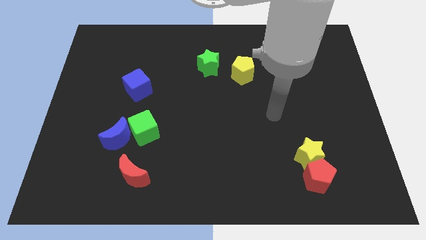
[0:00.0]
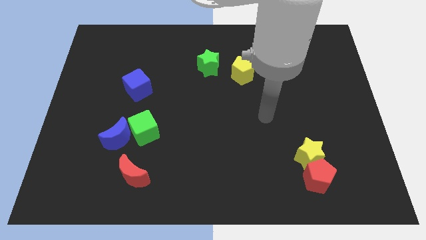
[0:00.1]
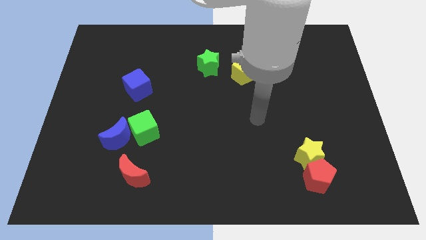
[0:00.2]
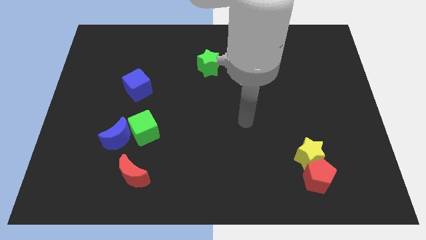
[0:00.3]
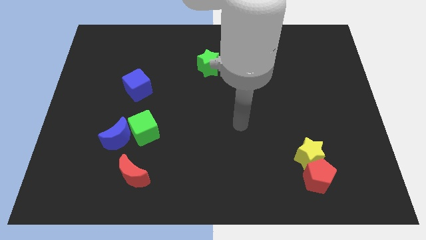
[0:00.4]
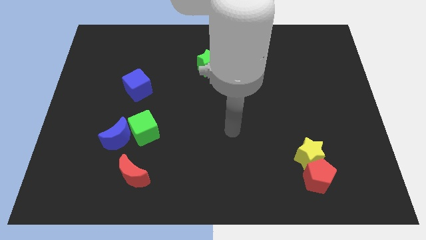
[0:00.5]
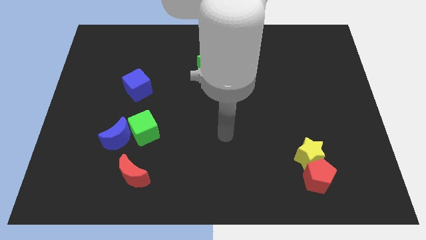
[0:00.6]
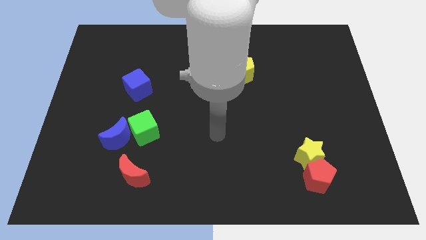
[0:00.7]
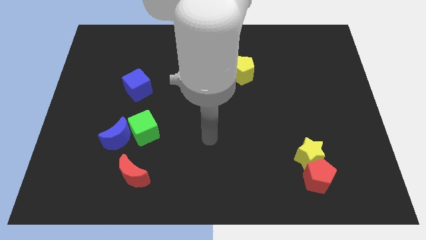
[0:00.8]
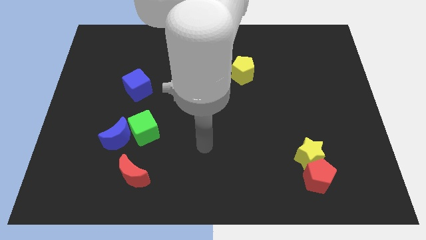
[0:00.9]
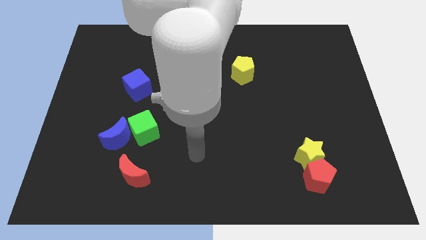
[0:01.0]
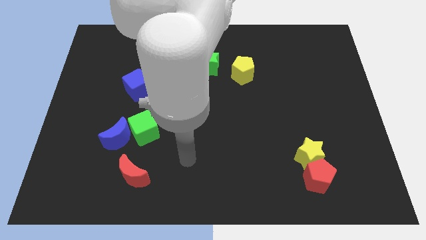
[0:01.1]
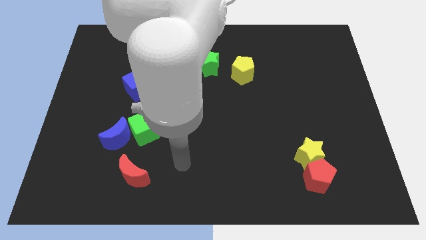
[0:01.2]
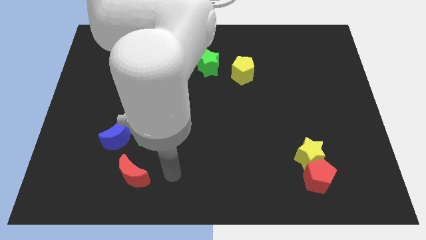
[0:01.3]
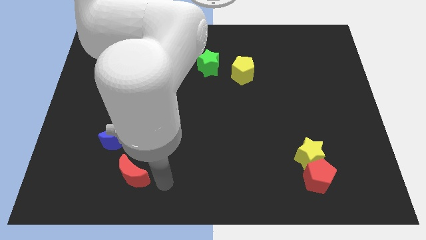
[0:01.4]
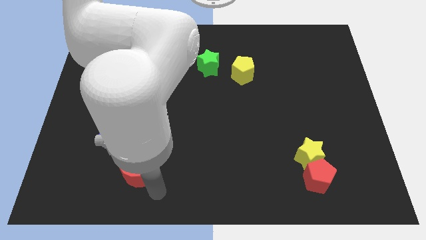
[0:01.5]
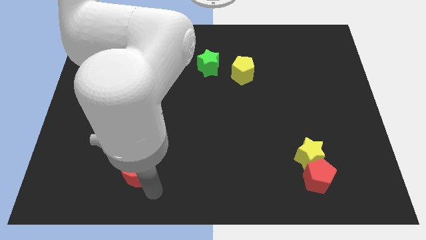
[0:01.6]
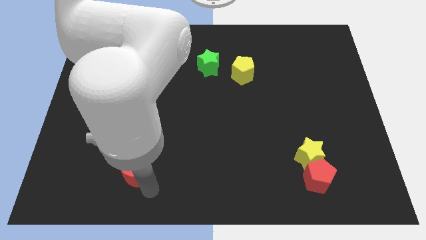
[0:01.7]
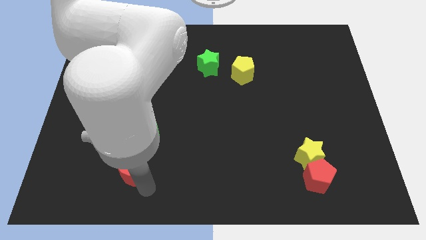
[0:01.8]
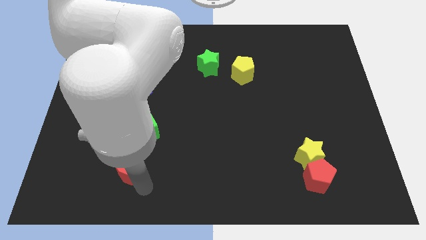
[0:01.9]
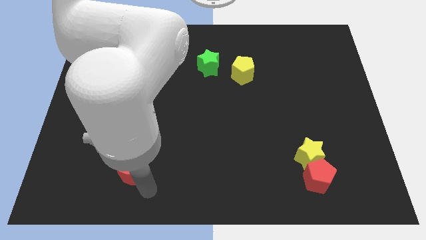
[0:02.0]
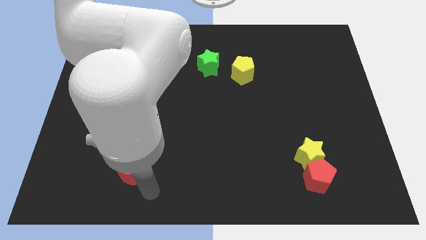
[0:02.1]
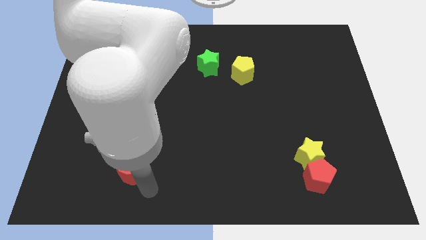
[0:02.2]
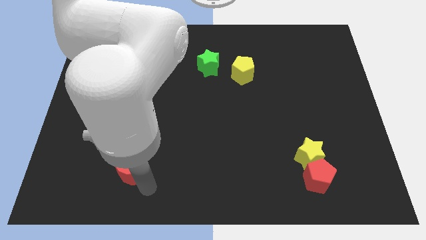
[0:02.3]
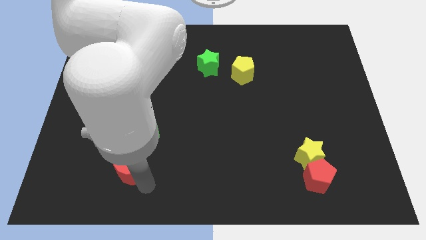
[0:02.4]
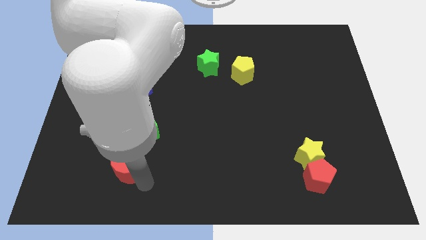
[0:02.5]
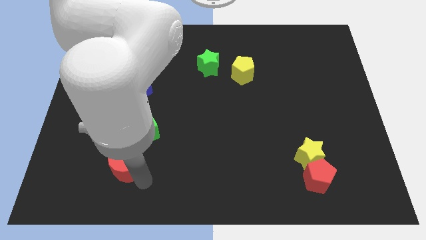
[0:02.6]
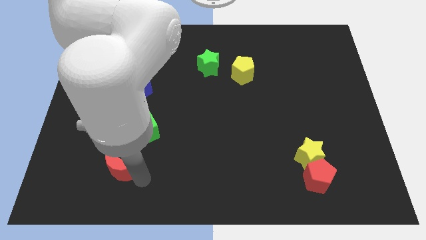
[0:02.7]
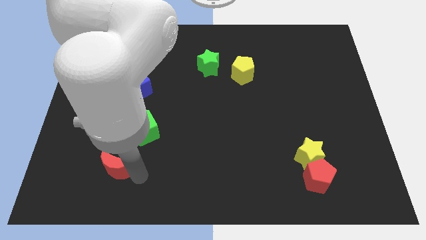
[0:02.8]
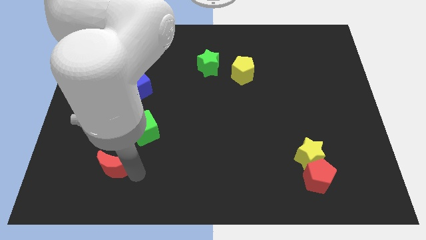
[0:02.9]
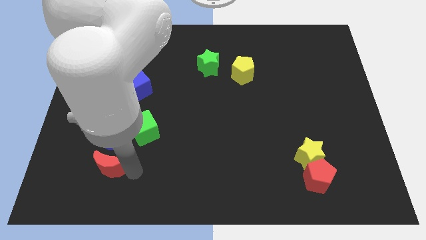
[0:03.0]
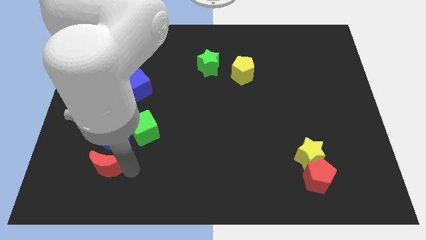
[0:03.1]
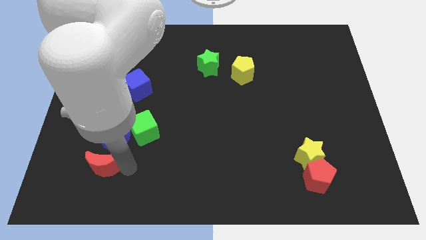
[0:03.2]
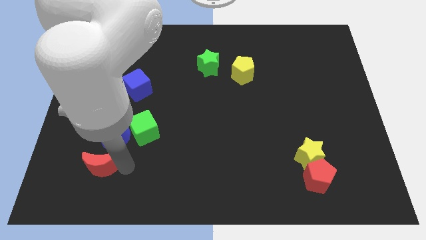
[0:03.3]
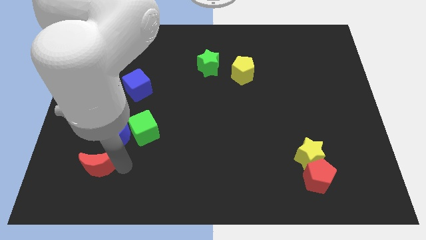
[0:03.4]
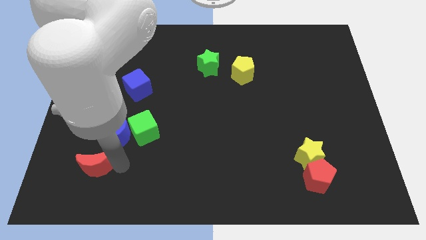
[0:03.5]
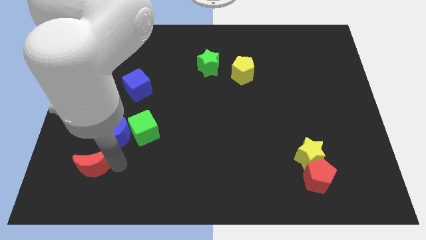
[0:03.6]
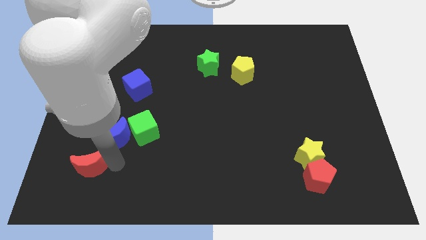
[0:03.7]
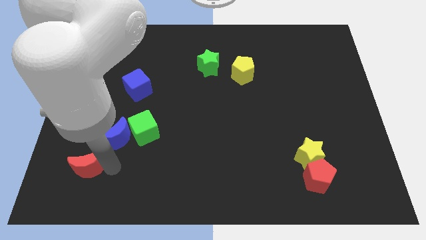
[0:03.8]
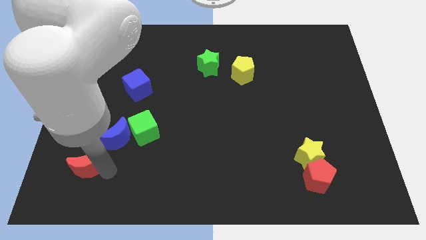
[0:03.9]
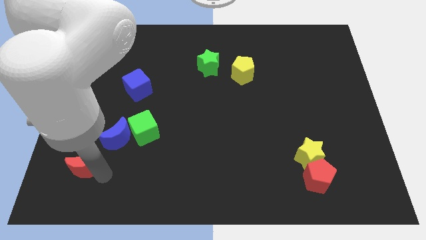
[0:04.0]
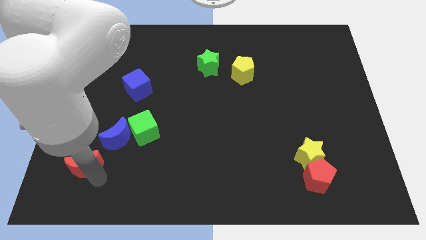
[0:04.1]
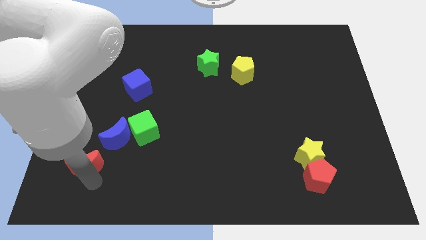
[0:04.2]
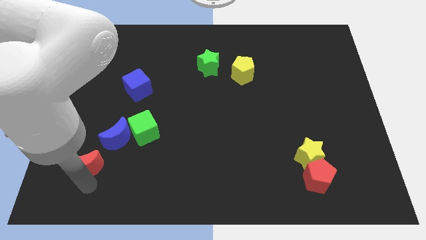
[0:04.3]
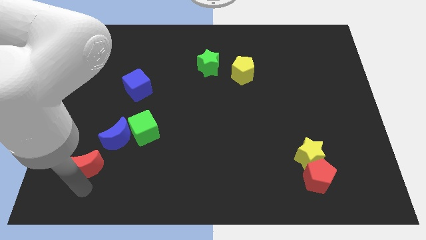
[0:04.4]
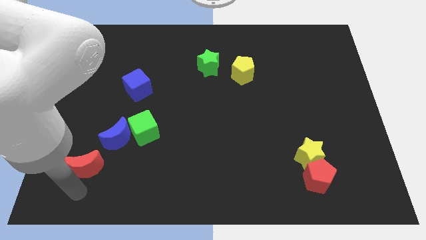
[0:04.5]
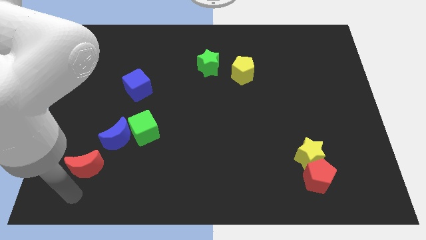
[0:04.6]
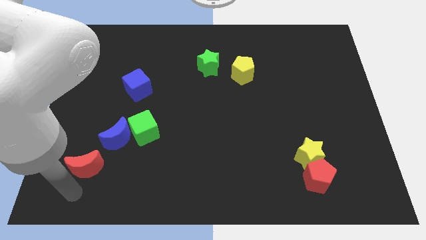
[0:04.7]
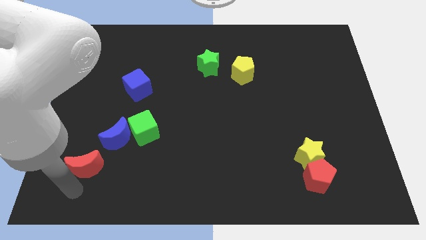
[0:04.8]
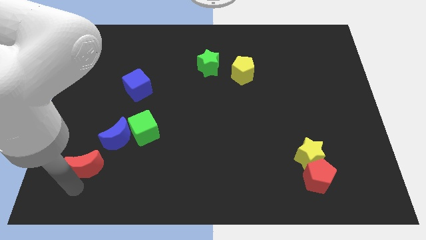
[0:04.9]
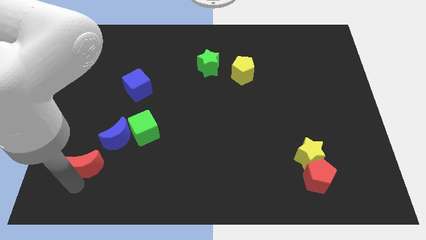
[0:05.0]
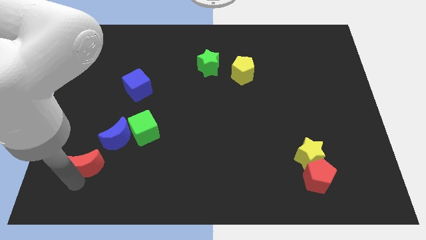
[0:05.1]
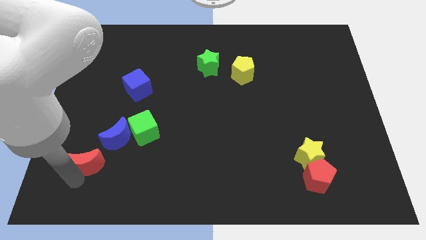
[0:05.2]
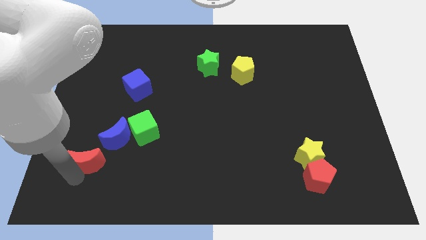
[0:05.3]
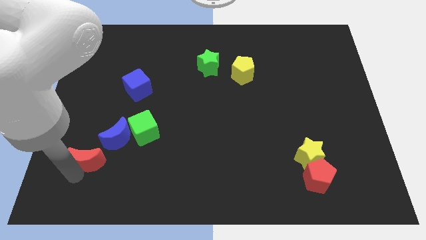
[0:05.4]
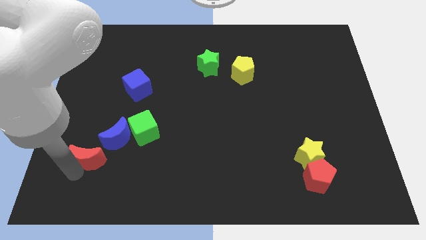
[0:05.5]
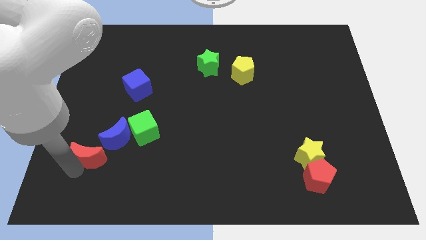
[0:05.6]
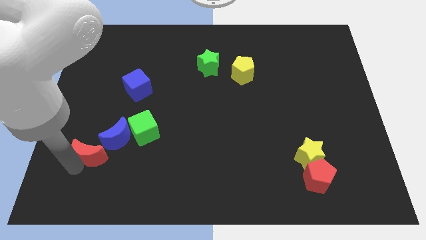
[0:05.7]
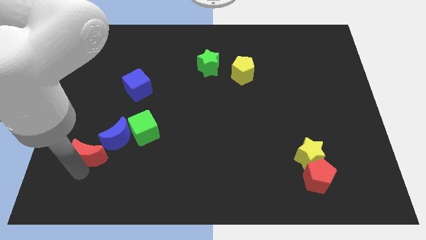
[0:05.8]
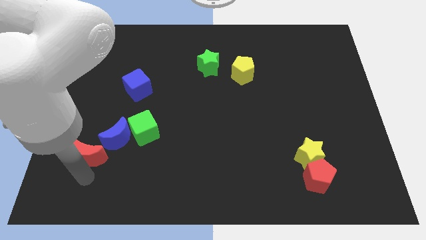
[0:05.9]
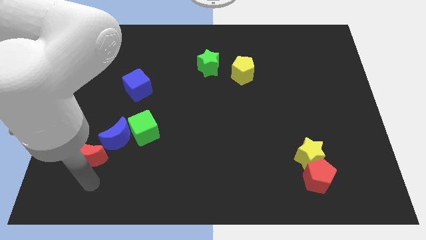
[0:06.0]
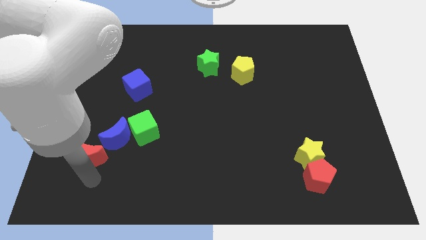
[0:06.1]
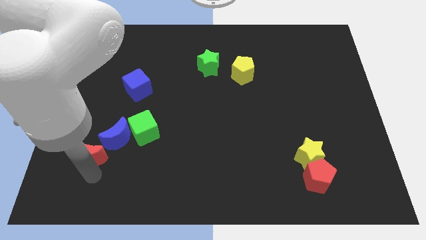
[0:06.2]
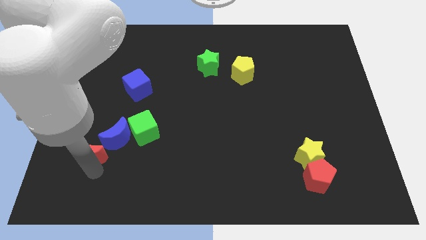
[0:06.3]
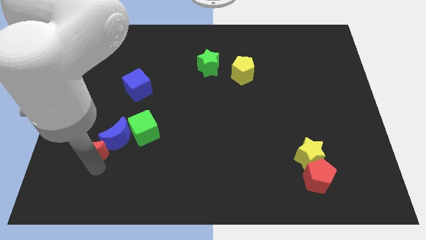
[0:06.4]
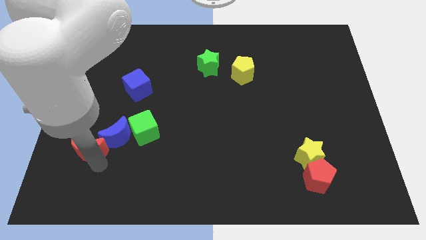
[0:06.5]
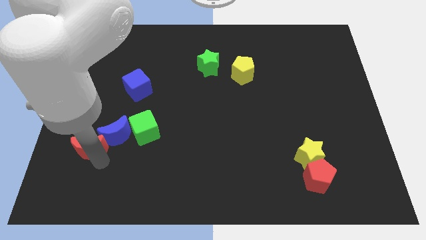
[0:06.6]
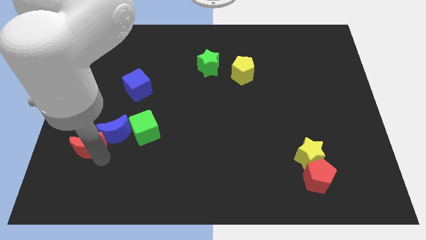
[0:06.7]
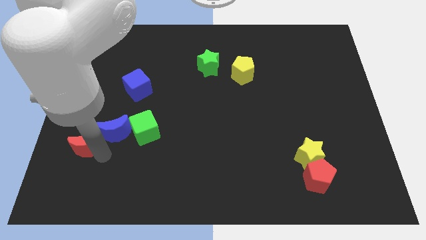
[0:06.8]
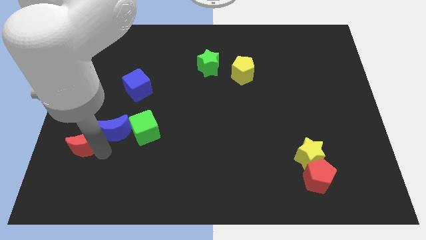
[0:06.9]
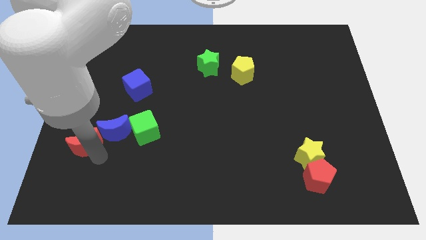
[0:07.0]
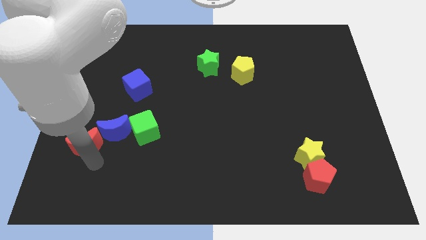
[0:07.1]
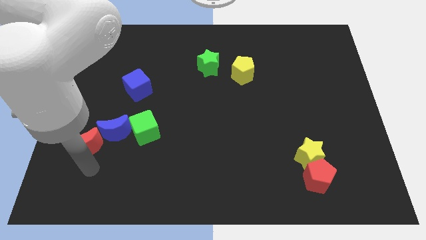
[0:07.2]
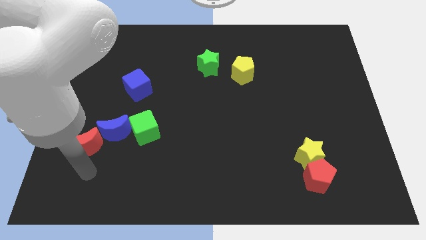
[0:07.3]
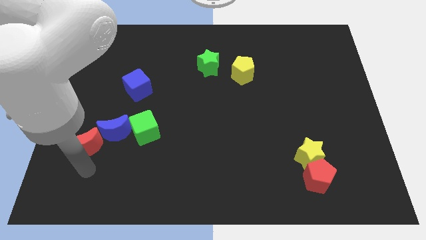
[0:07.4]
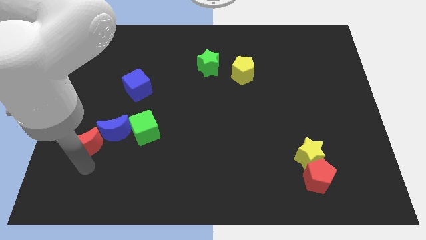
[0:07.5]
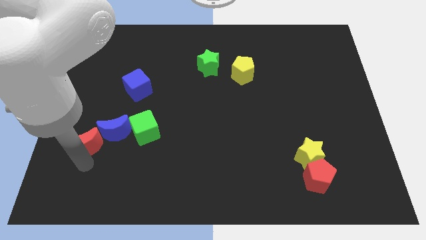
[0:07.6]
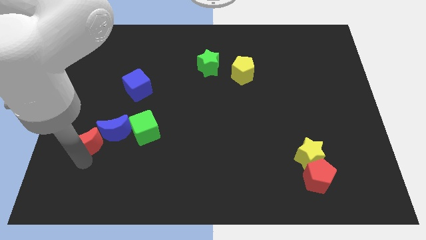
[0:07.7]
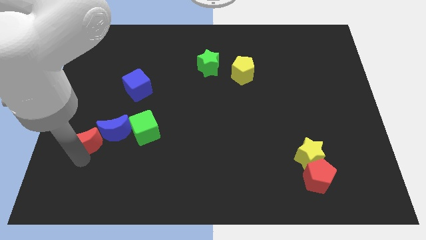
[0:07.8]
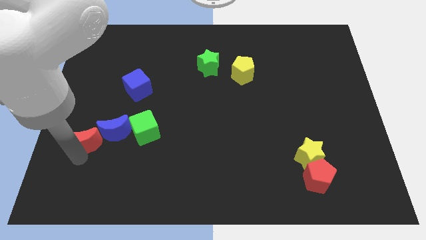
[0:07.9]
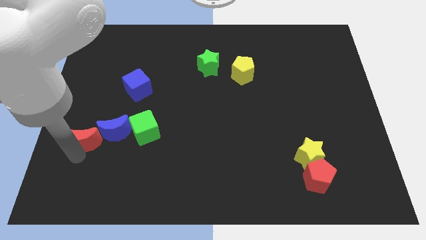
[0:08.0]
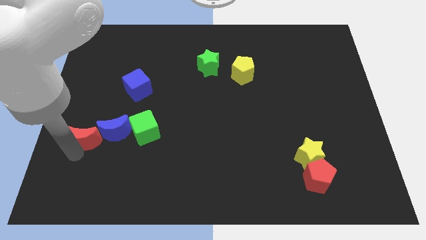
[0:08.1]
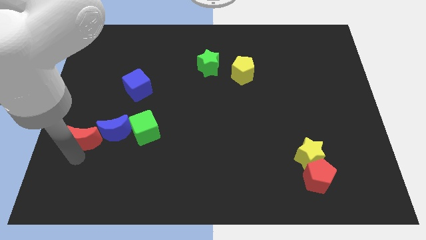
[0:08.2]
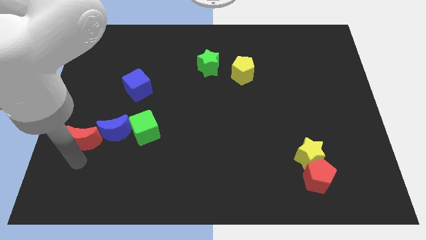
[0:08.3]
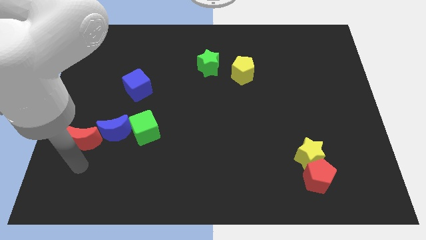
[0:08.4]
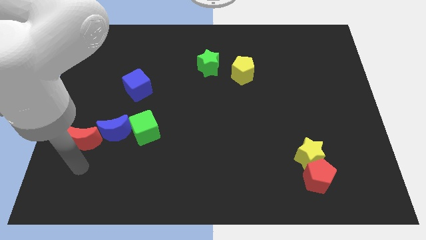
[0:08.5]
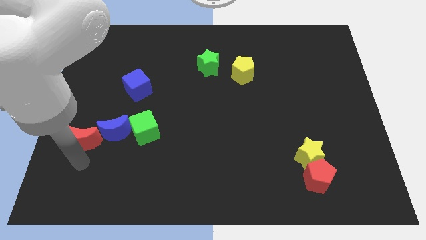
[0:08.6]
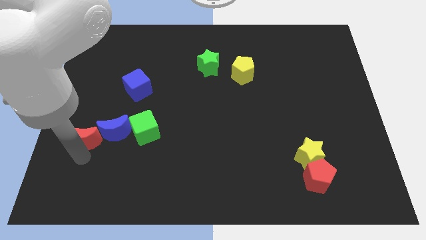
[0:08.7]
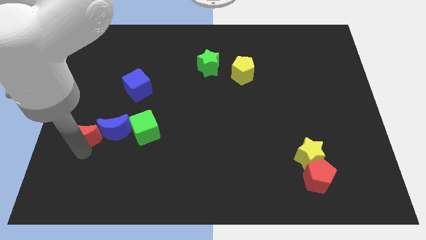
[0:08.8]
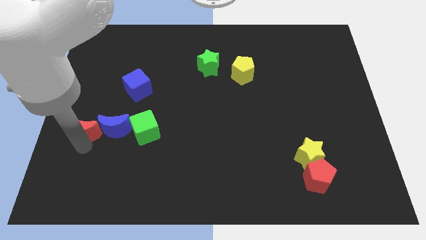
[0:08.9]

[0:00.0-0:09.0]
move the red moon to the left side
